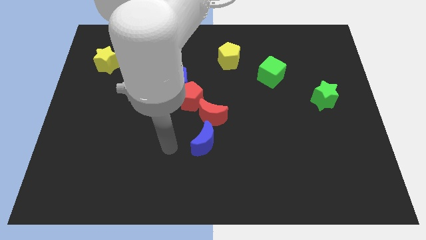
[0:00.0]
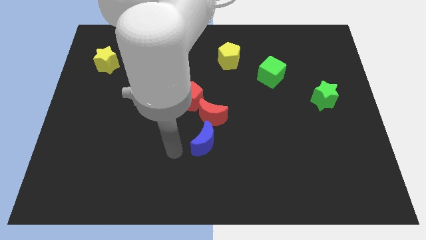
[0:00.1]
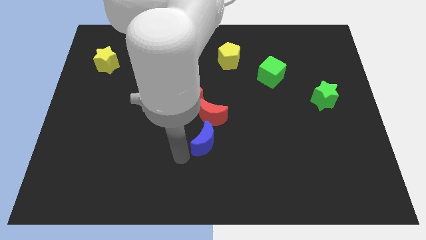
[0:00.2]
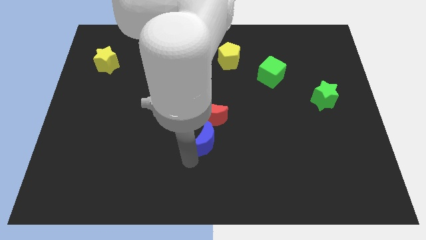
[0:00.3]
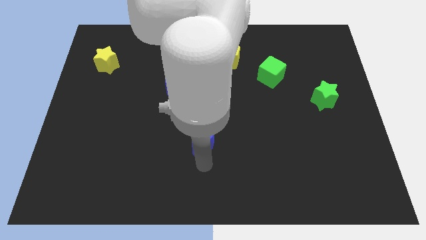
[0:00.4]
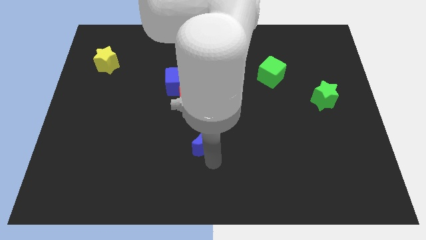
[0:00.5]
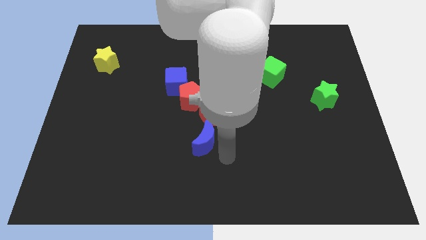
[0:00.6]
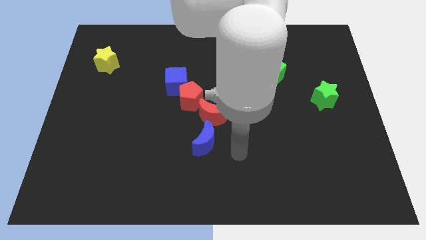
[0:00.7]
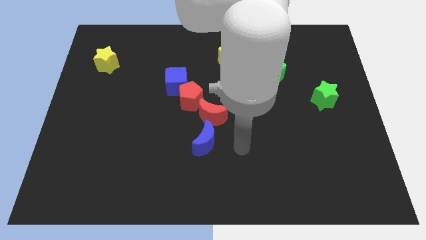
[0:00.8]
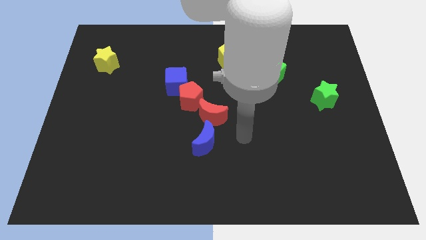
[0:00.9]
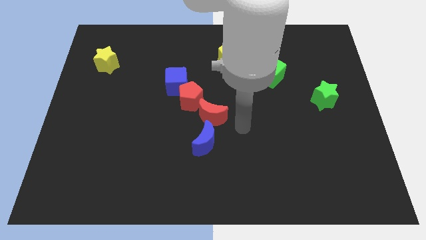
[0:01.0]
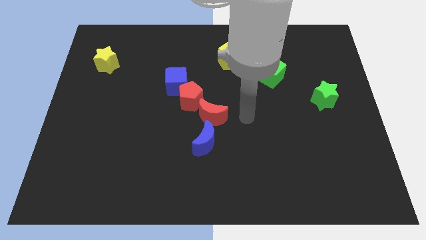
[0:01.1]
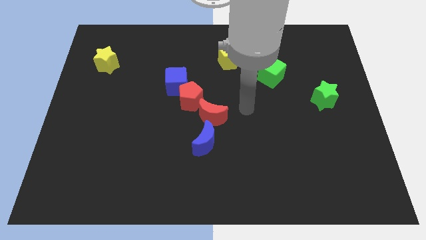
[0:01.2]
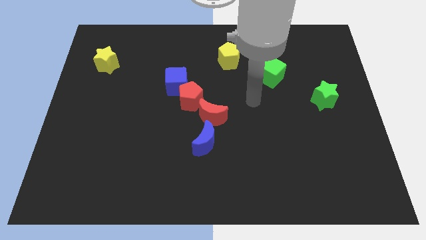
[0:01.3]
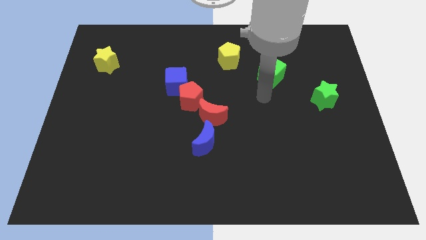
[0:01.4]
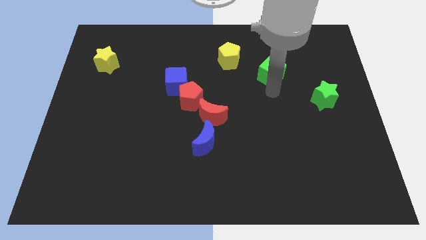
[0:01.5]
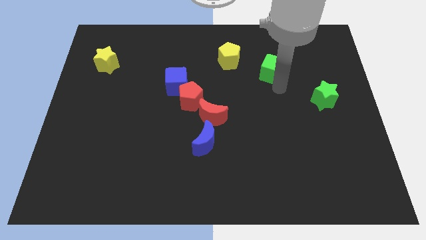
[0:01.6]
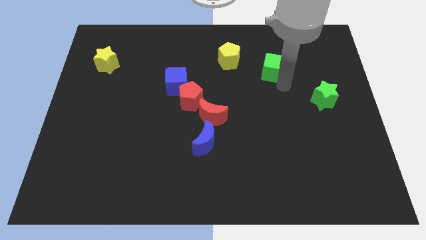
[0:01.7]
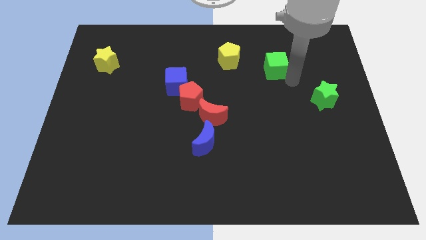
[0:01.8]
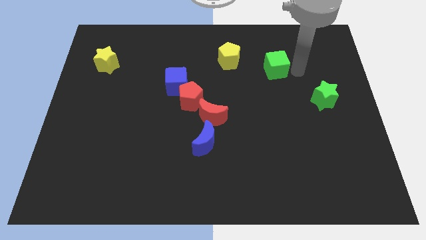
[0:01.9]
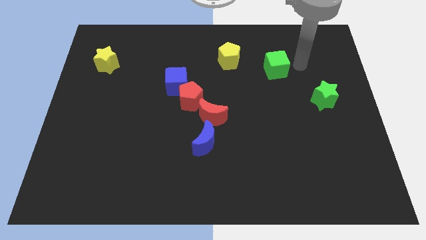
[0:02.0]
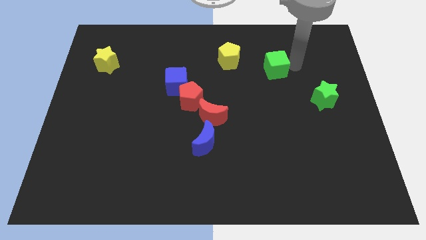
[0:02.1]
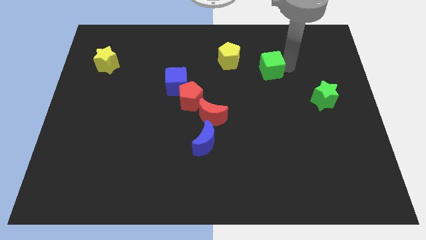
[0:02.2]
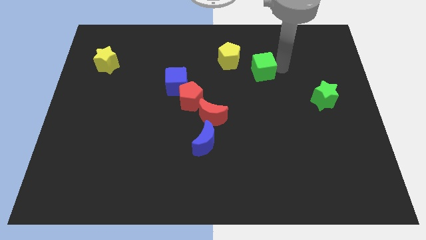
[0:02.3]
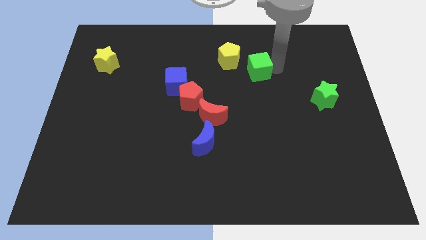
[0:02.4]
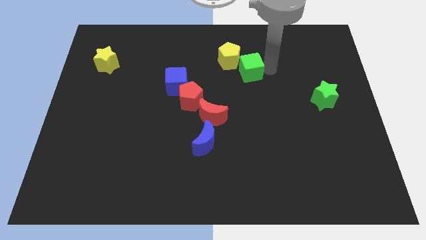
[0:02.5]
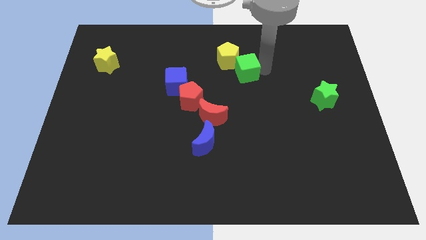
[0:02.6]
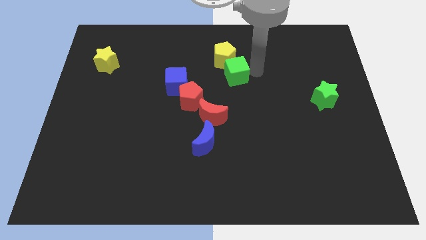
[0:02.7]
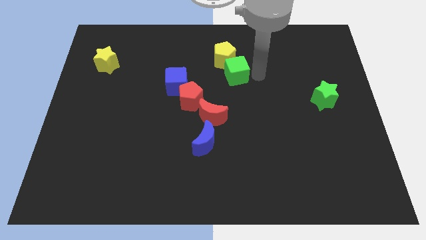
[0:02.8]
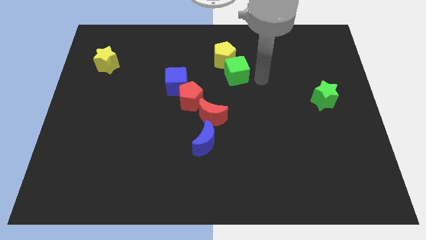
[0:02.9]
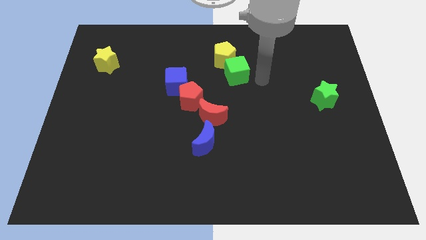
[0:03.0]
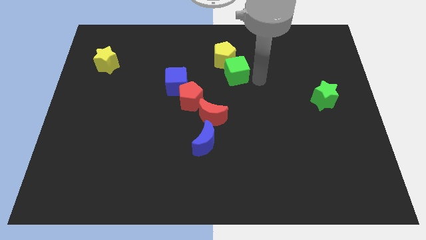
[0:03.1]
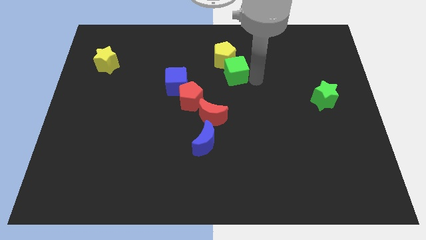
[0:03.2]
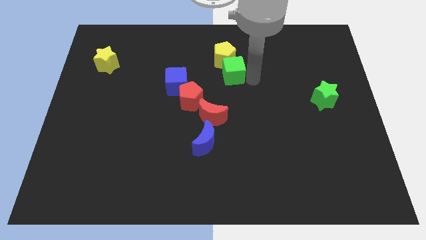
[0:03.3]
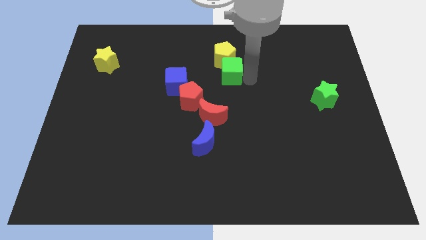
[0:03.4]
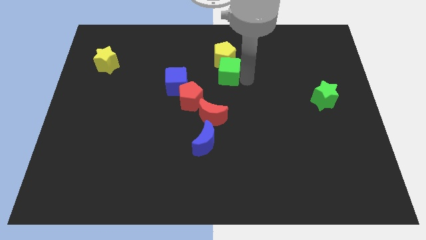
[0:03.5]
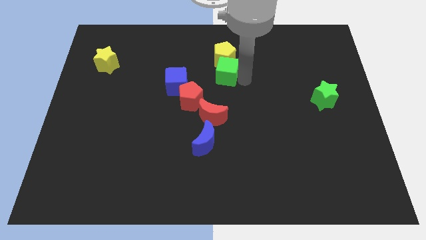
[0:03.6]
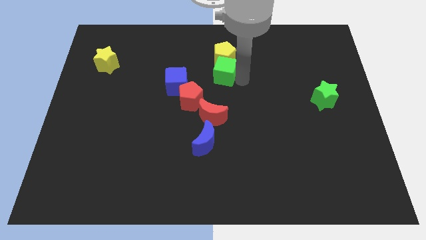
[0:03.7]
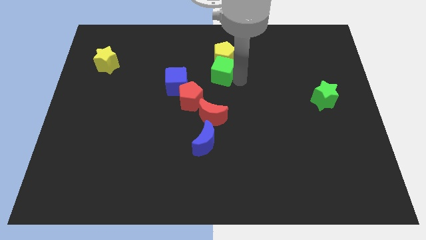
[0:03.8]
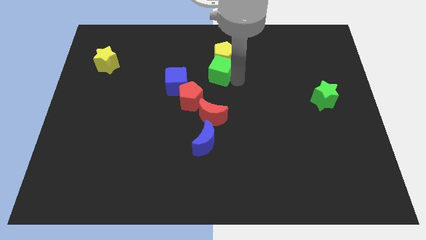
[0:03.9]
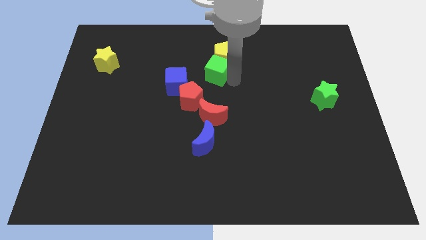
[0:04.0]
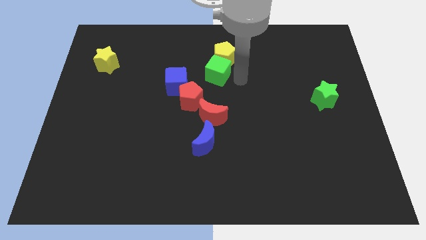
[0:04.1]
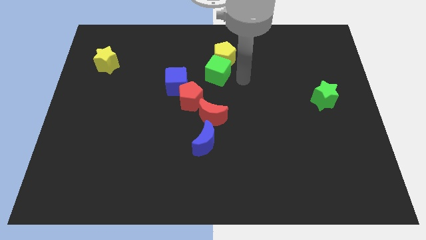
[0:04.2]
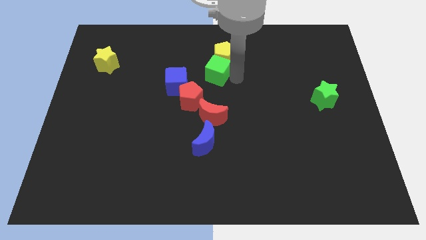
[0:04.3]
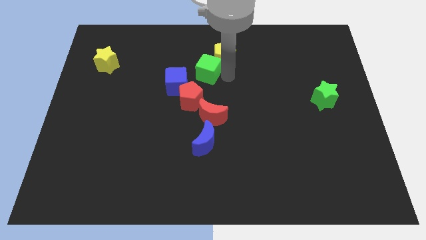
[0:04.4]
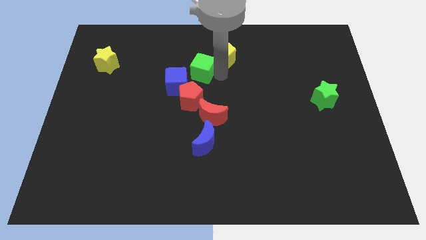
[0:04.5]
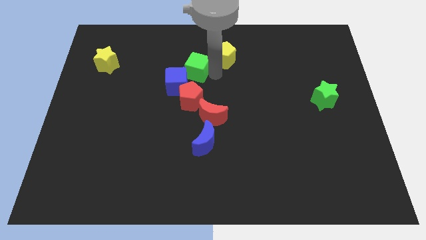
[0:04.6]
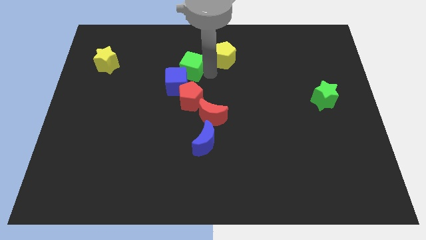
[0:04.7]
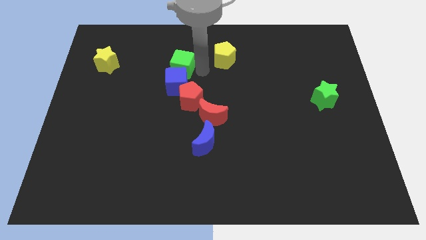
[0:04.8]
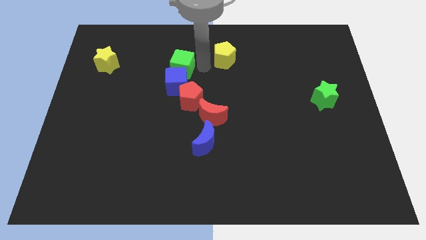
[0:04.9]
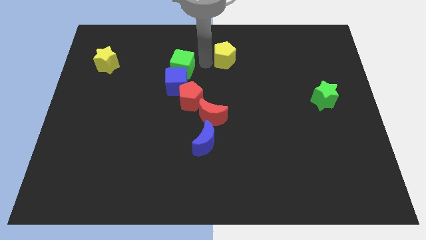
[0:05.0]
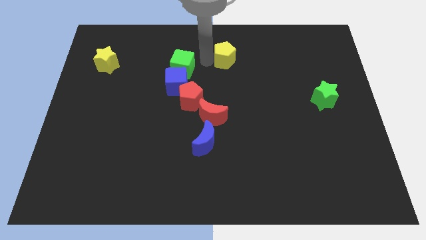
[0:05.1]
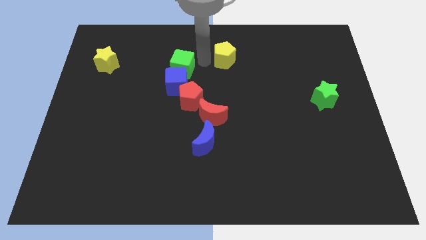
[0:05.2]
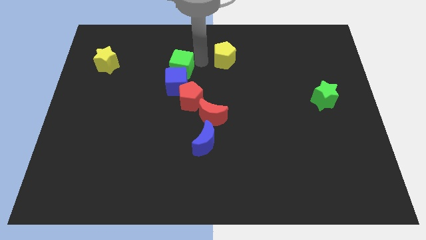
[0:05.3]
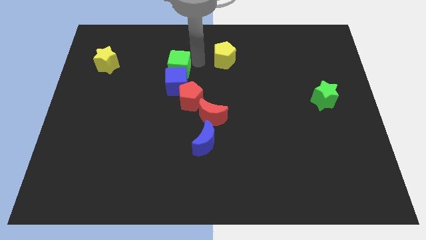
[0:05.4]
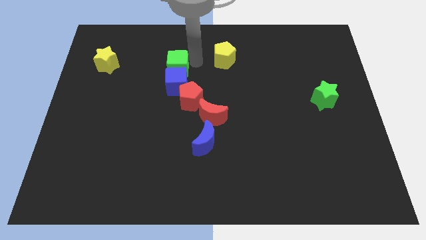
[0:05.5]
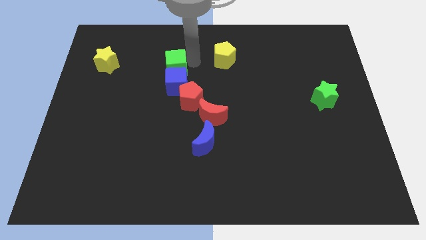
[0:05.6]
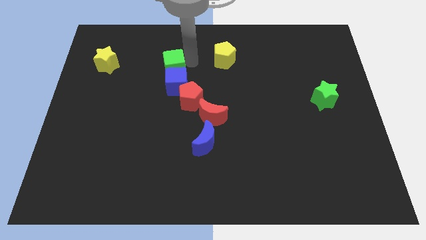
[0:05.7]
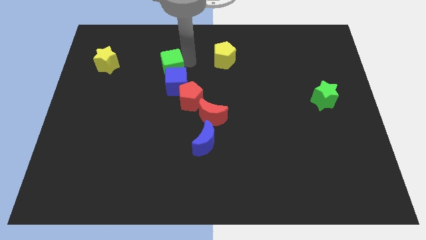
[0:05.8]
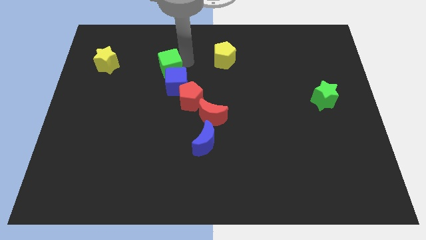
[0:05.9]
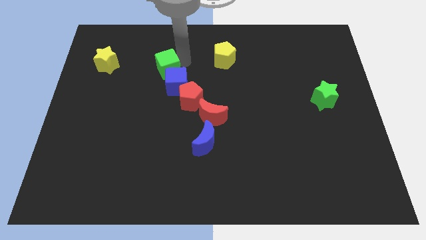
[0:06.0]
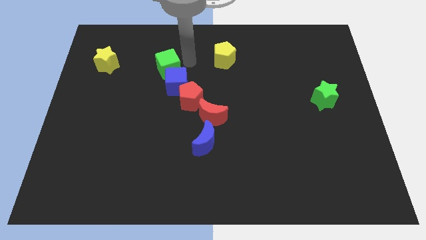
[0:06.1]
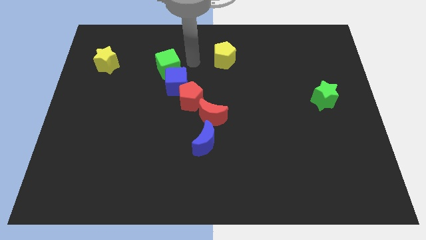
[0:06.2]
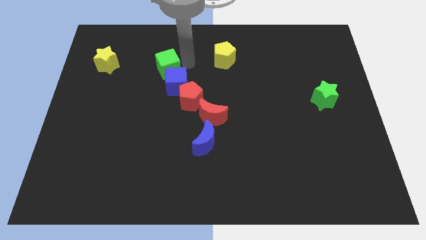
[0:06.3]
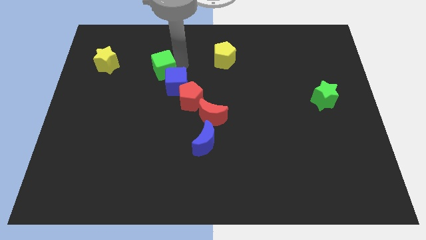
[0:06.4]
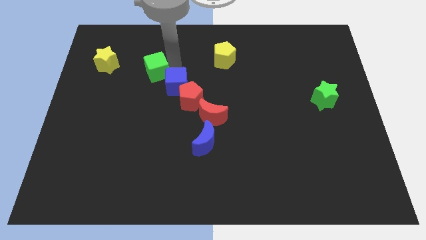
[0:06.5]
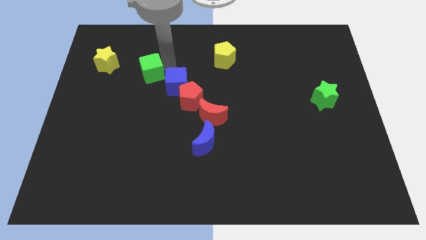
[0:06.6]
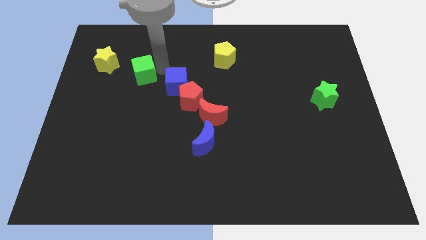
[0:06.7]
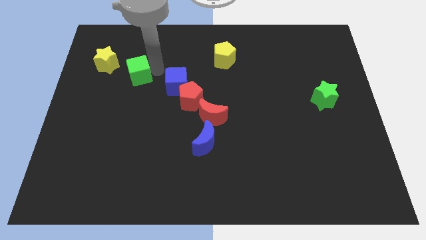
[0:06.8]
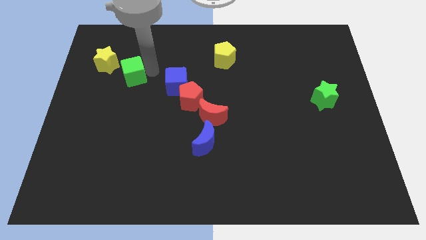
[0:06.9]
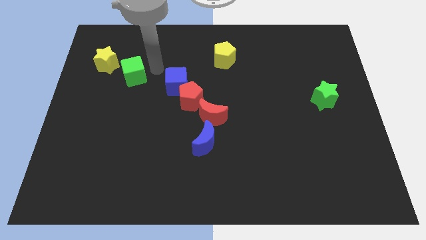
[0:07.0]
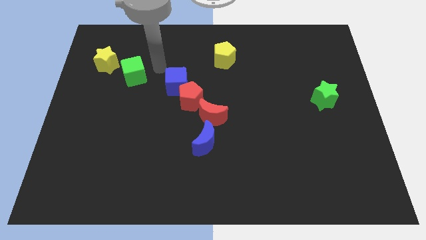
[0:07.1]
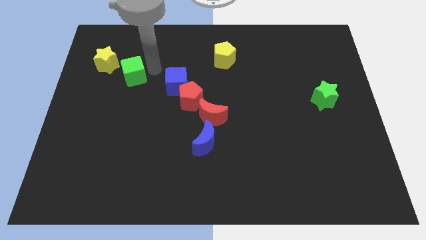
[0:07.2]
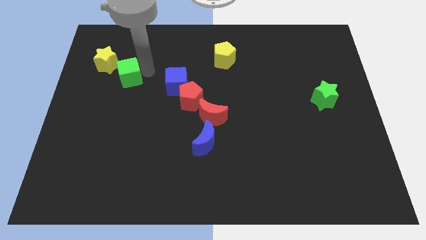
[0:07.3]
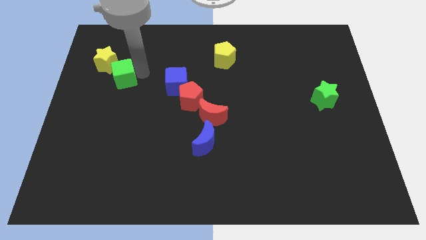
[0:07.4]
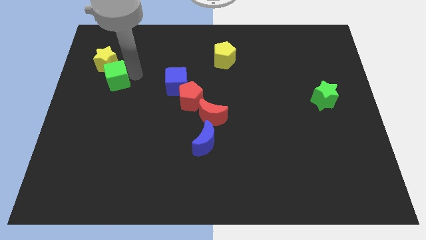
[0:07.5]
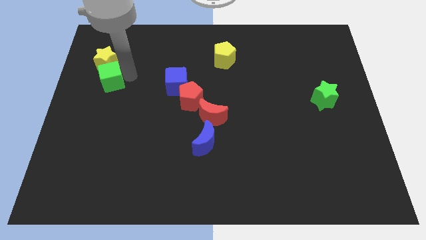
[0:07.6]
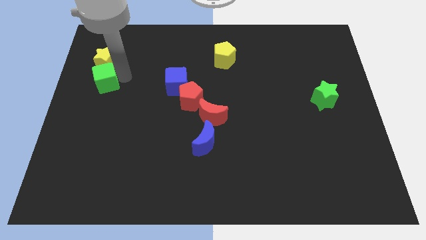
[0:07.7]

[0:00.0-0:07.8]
slide the green cube to the left side of the board

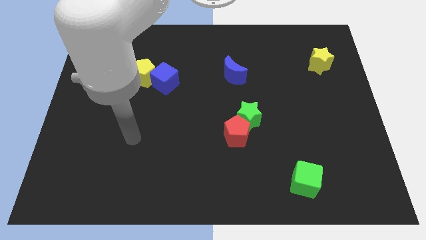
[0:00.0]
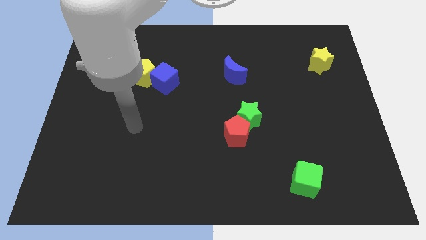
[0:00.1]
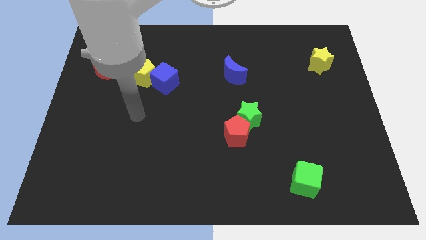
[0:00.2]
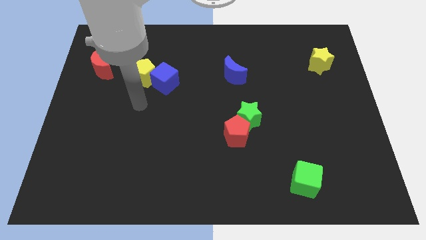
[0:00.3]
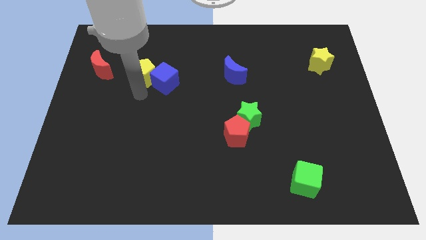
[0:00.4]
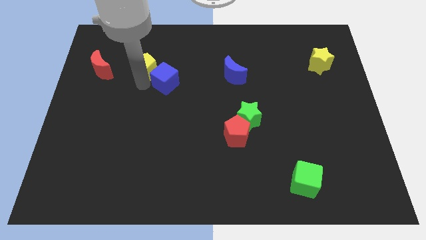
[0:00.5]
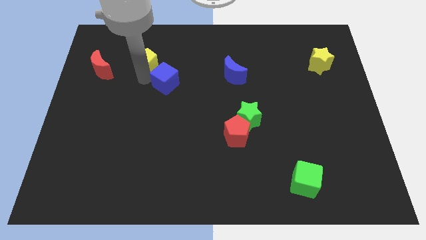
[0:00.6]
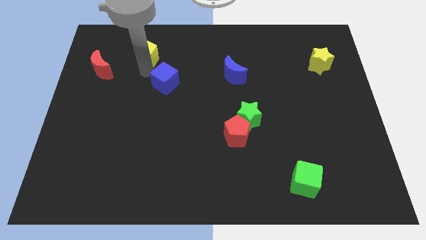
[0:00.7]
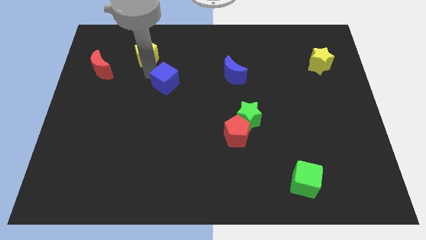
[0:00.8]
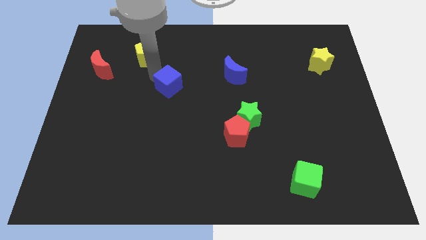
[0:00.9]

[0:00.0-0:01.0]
push the blue cube to the center
